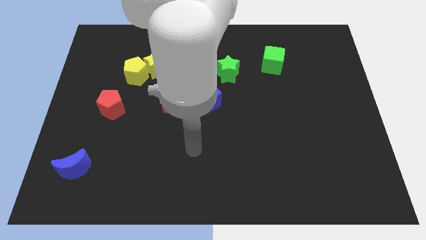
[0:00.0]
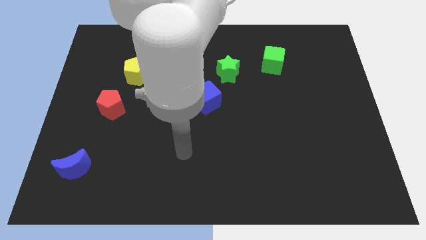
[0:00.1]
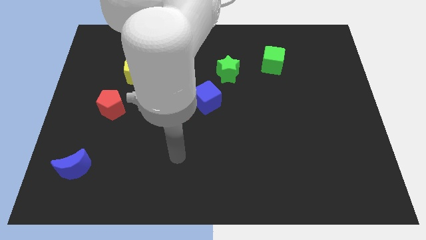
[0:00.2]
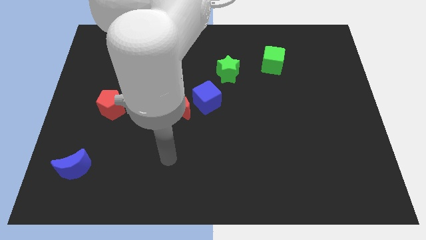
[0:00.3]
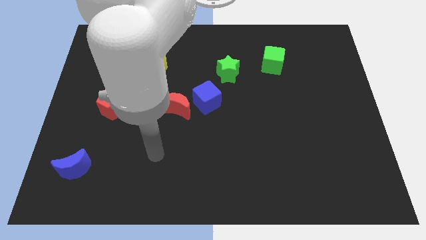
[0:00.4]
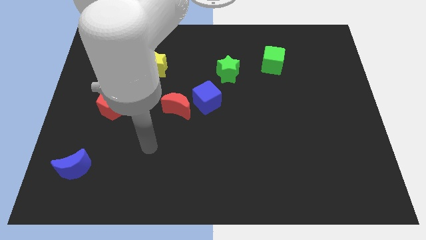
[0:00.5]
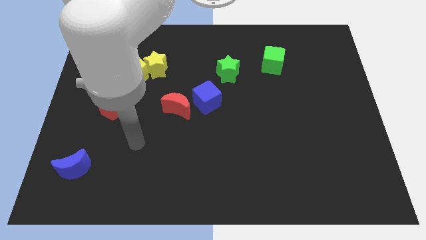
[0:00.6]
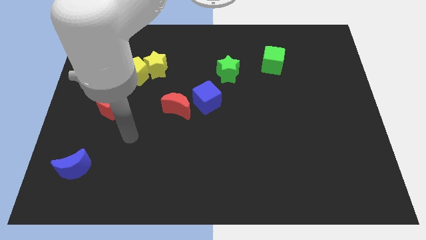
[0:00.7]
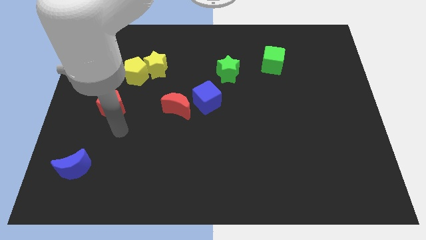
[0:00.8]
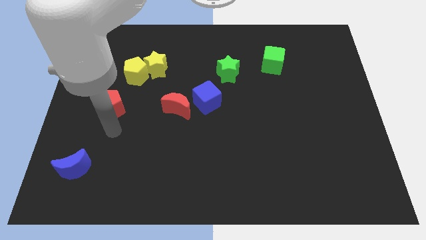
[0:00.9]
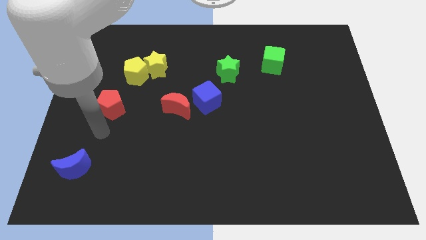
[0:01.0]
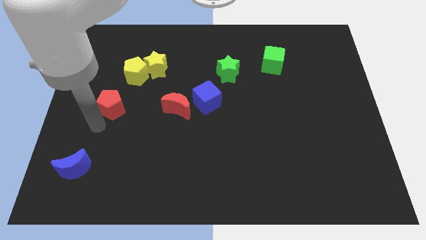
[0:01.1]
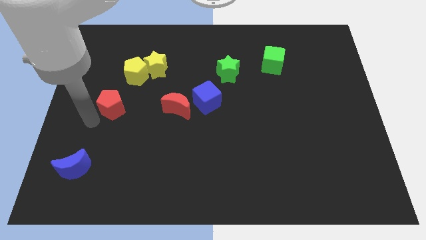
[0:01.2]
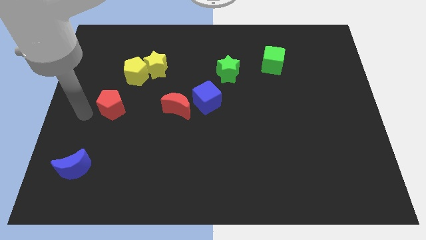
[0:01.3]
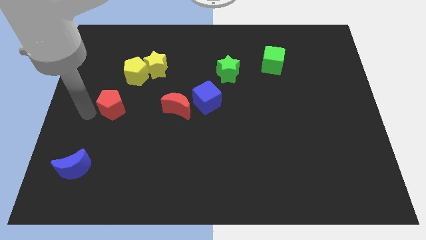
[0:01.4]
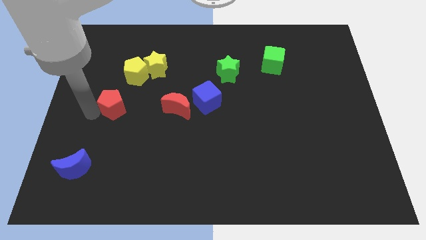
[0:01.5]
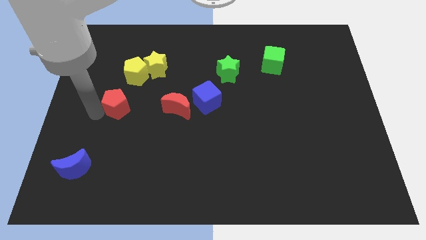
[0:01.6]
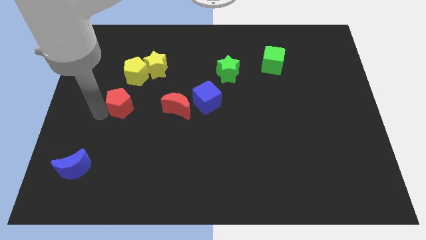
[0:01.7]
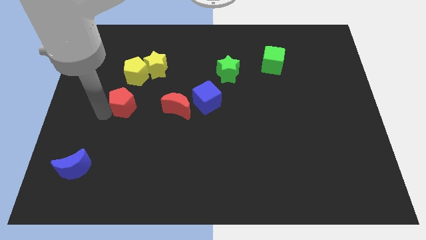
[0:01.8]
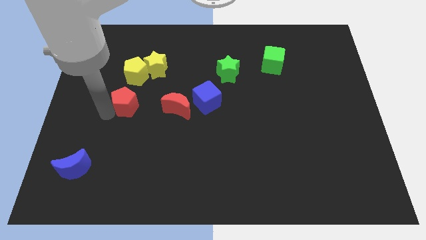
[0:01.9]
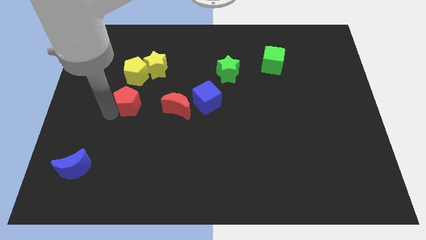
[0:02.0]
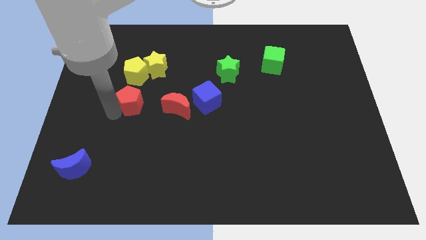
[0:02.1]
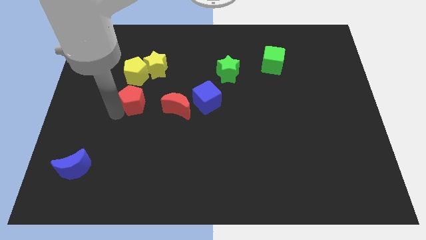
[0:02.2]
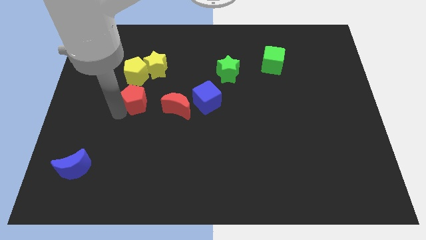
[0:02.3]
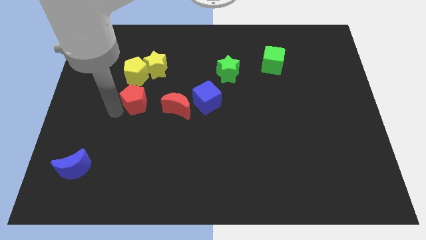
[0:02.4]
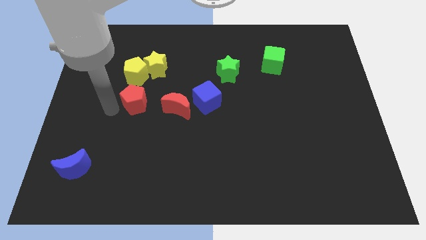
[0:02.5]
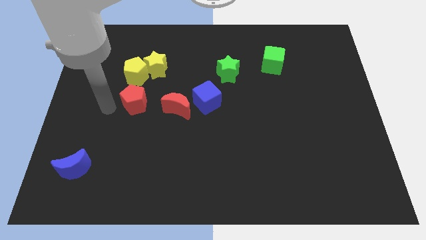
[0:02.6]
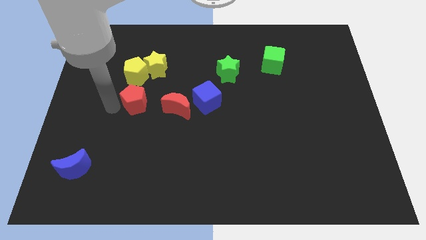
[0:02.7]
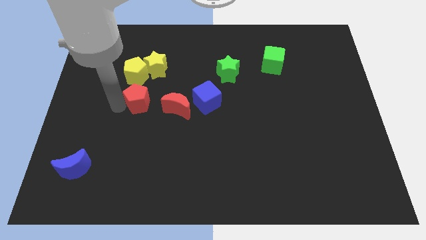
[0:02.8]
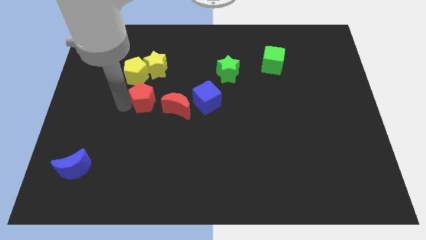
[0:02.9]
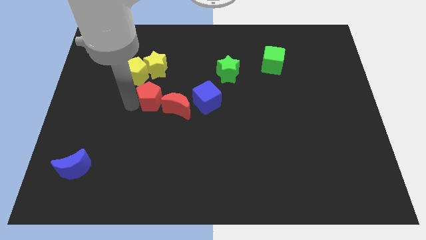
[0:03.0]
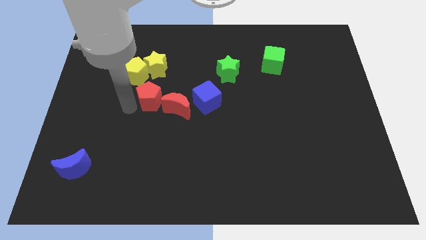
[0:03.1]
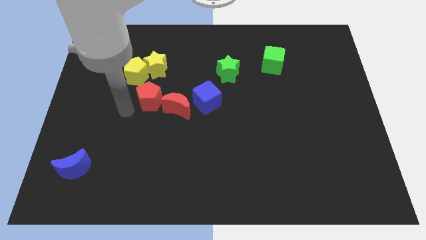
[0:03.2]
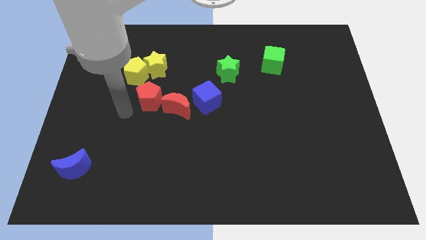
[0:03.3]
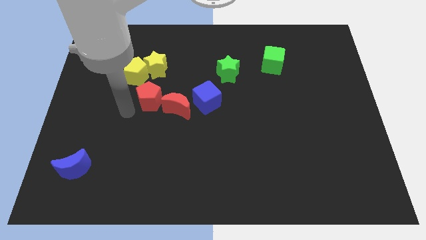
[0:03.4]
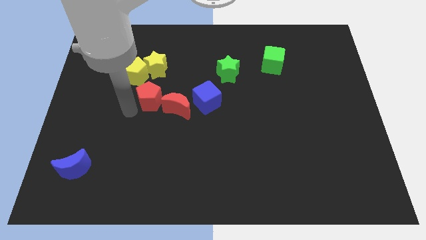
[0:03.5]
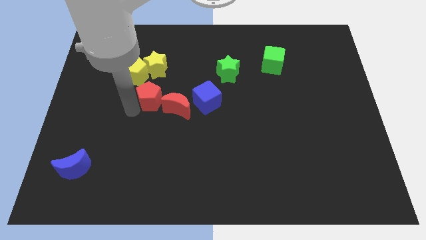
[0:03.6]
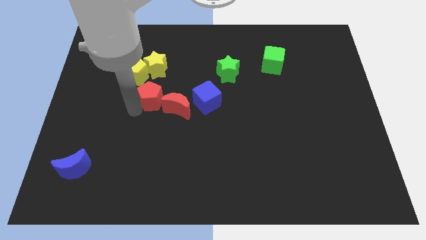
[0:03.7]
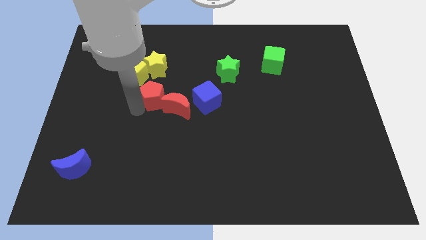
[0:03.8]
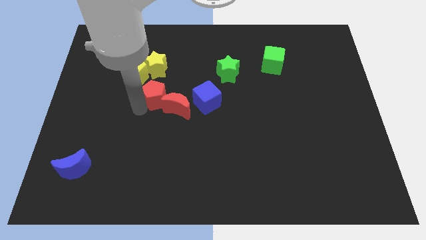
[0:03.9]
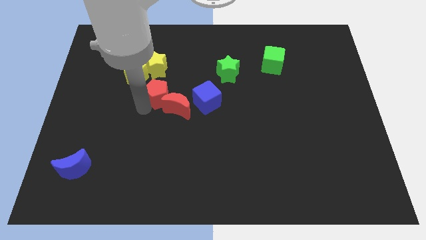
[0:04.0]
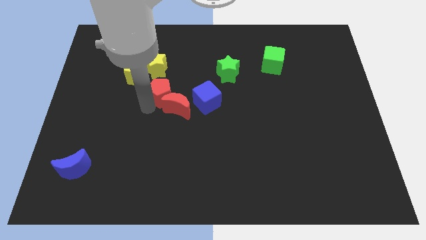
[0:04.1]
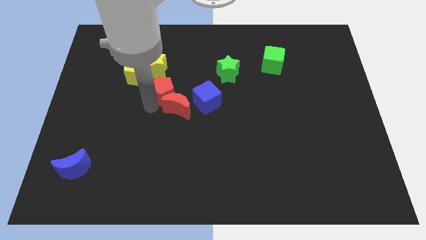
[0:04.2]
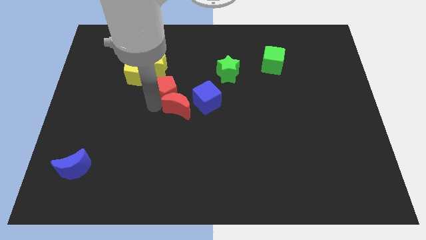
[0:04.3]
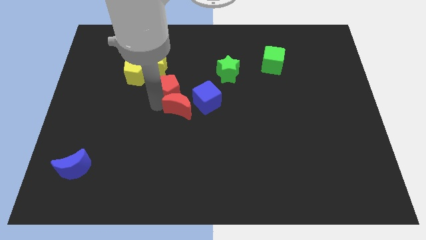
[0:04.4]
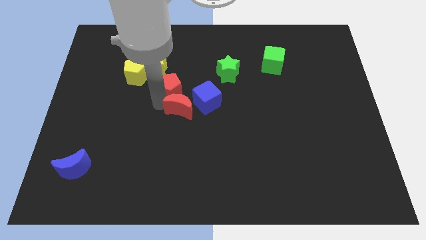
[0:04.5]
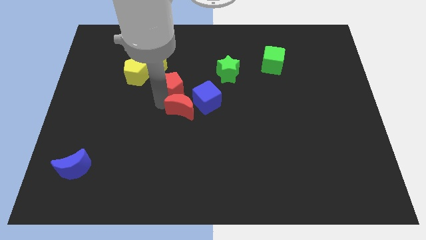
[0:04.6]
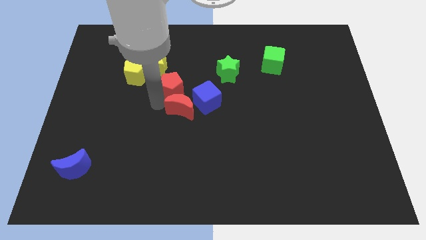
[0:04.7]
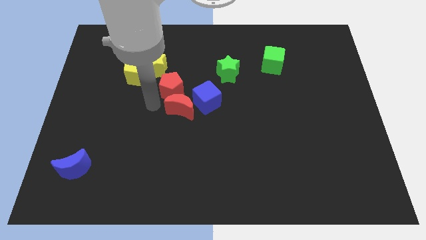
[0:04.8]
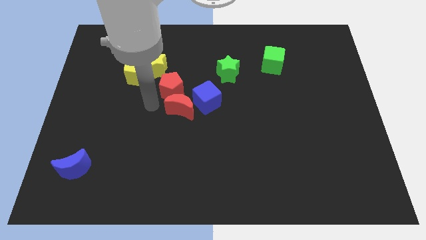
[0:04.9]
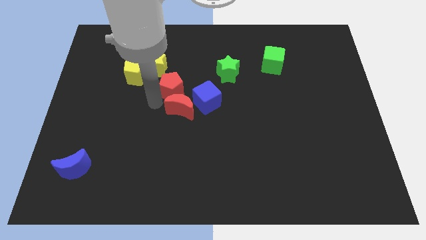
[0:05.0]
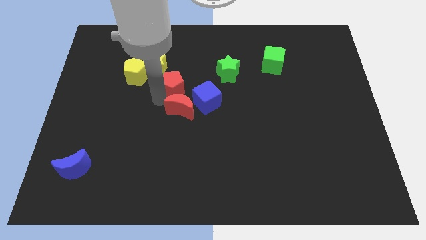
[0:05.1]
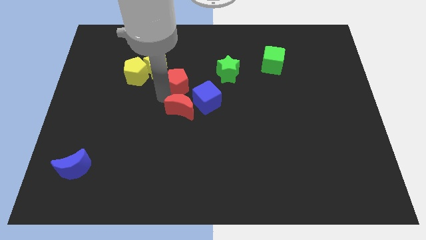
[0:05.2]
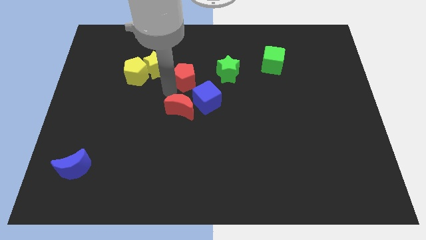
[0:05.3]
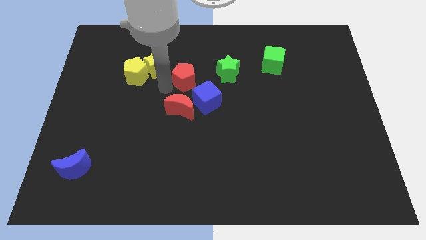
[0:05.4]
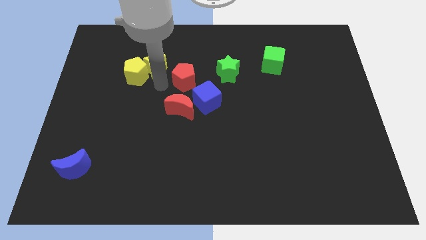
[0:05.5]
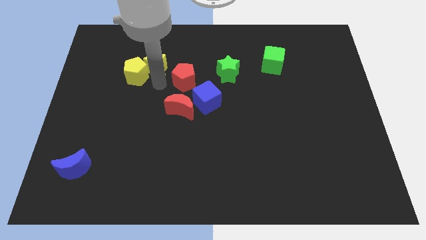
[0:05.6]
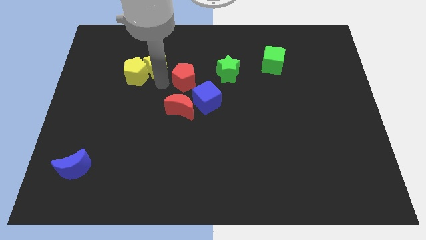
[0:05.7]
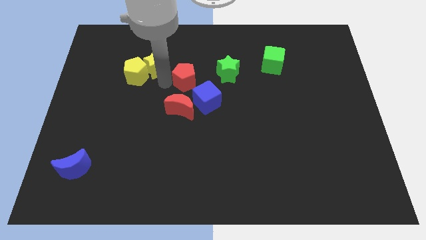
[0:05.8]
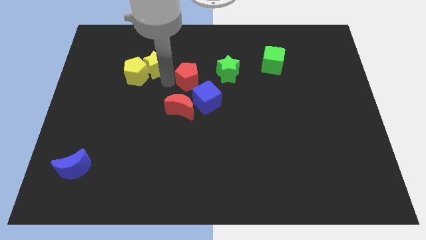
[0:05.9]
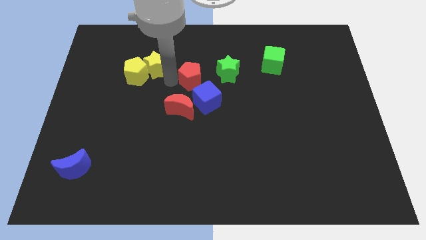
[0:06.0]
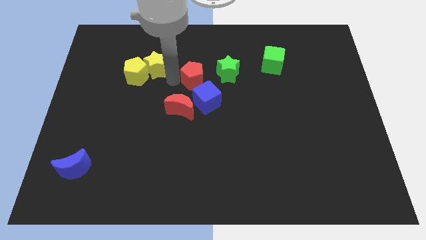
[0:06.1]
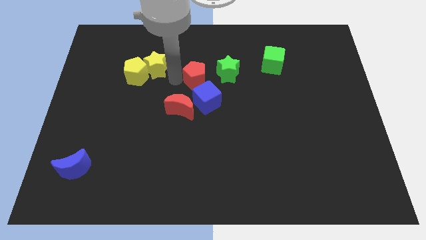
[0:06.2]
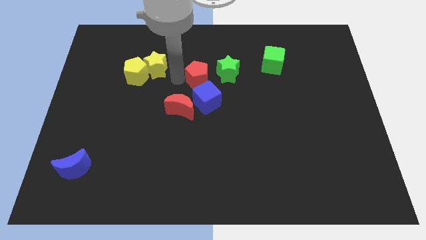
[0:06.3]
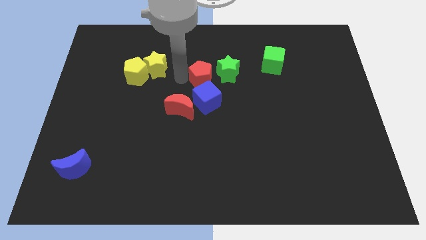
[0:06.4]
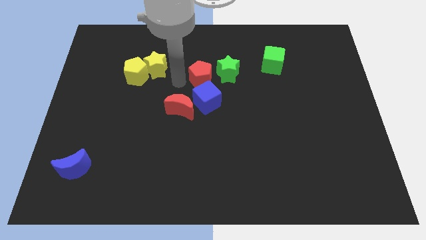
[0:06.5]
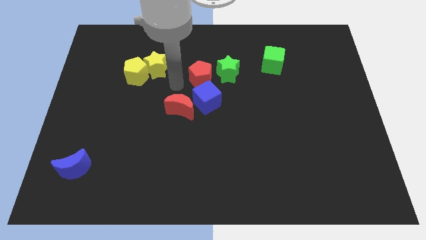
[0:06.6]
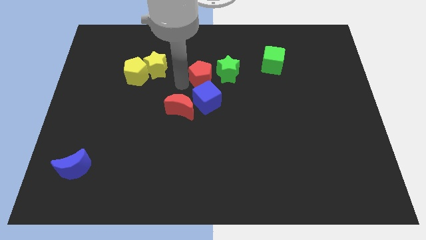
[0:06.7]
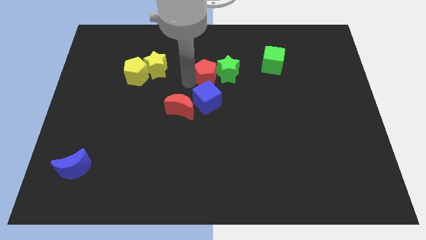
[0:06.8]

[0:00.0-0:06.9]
push the red pentagon towards the green star
